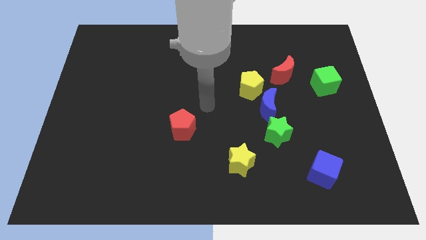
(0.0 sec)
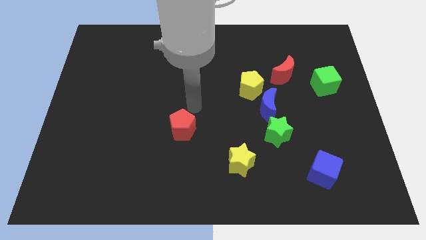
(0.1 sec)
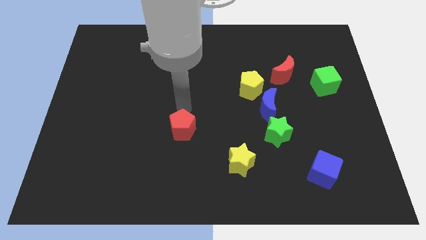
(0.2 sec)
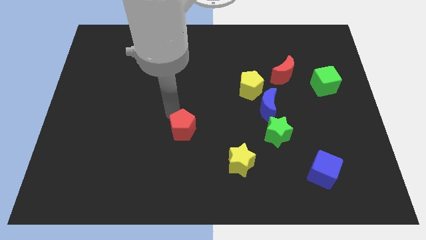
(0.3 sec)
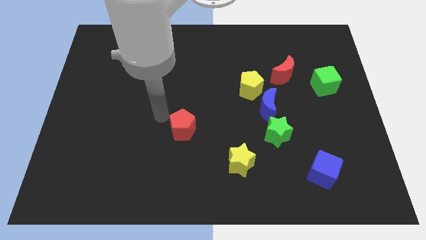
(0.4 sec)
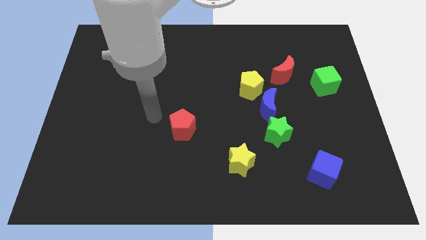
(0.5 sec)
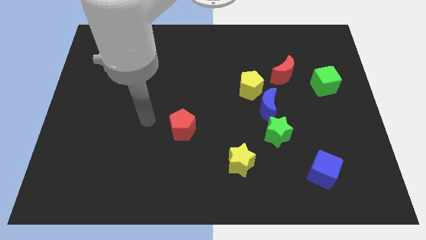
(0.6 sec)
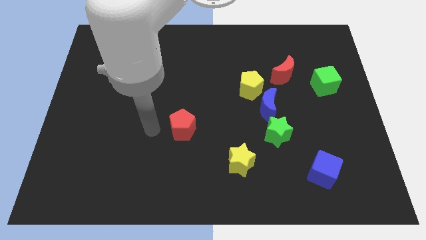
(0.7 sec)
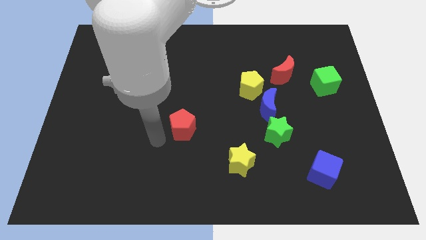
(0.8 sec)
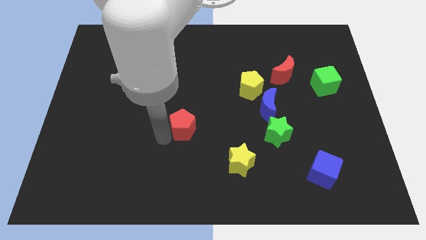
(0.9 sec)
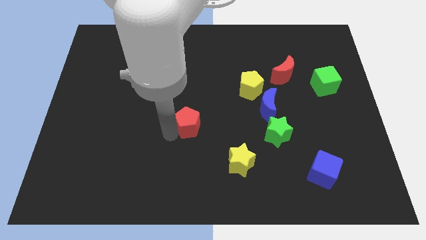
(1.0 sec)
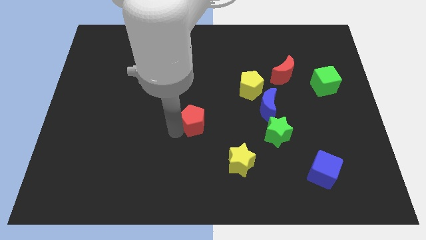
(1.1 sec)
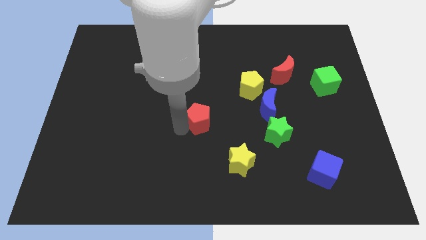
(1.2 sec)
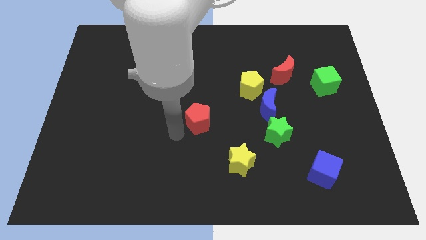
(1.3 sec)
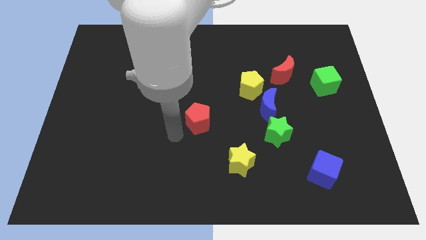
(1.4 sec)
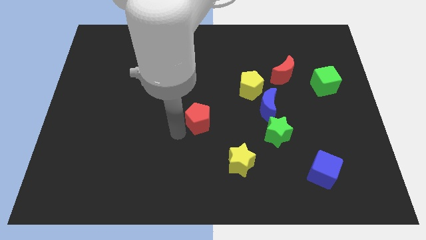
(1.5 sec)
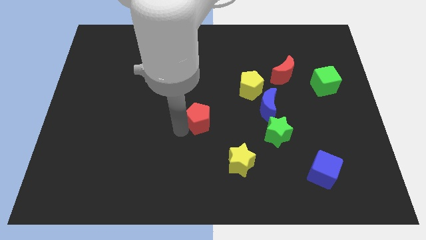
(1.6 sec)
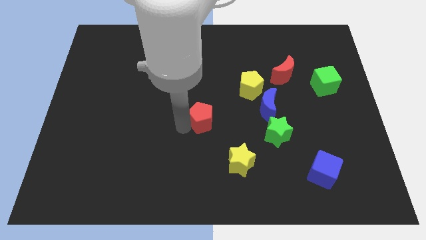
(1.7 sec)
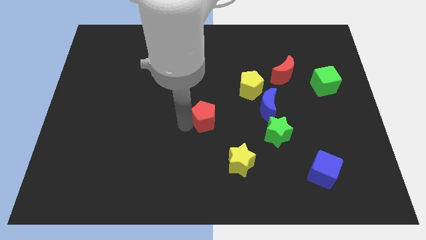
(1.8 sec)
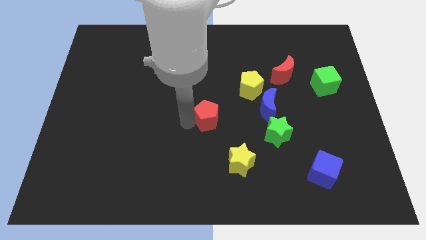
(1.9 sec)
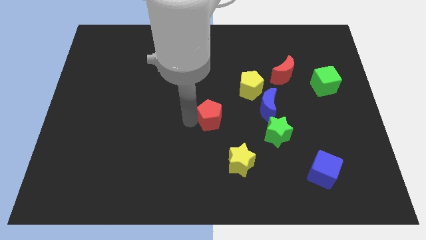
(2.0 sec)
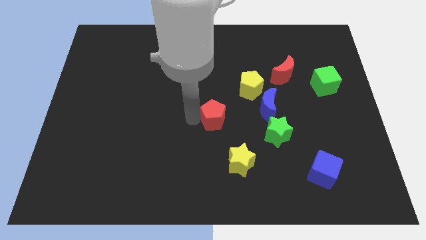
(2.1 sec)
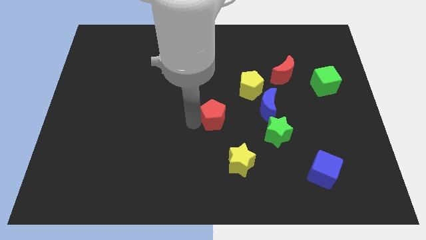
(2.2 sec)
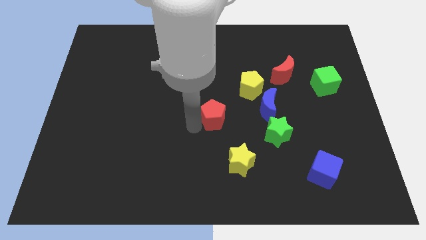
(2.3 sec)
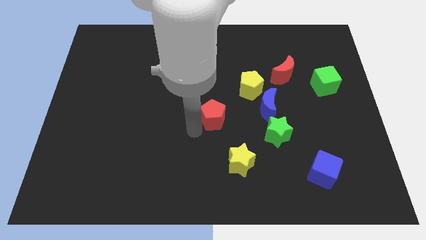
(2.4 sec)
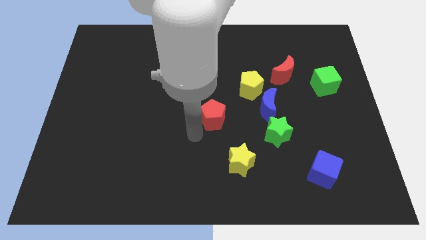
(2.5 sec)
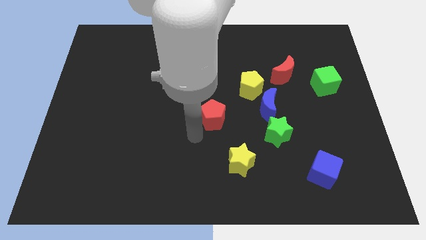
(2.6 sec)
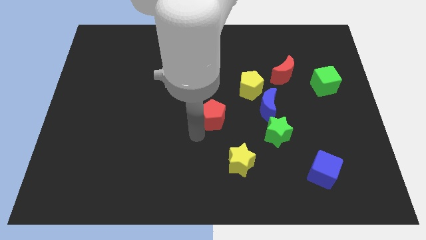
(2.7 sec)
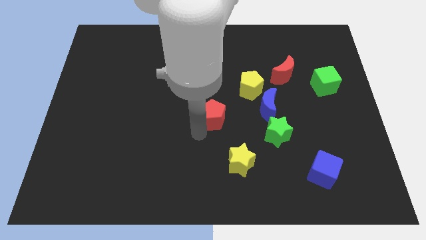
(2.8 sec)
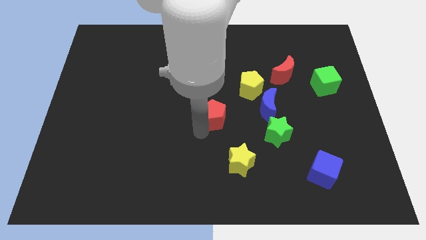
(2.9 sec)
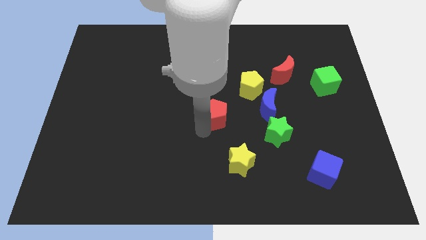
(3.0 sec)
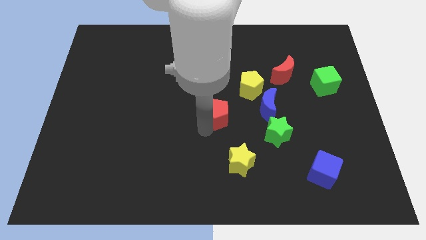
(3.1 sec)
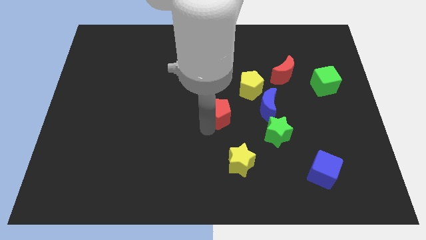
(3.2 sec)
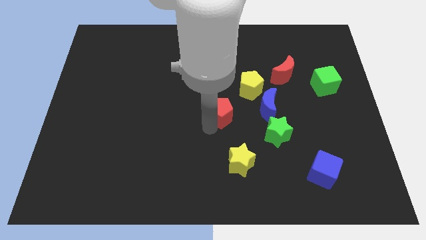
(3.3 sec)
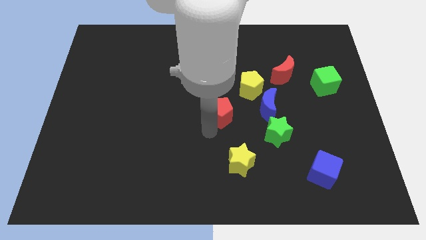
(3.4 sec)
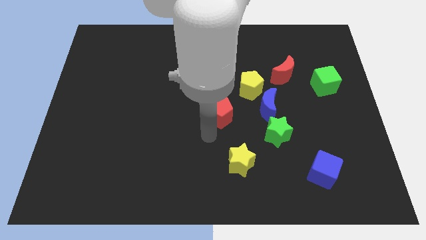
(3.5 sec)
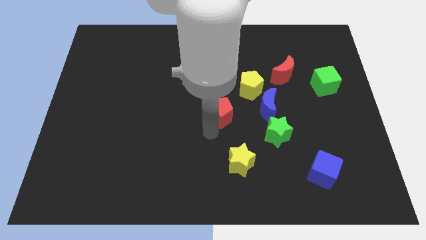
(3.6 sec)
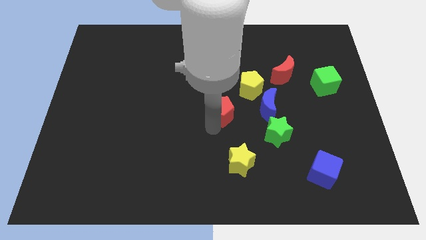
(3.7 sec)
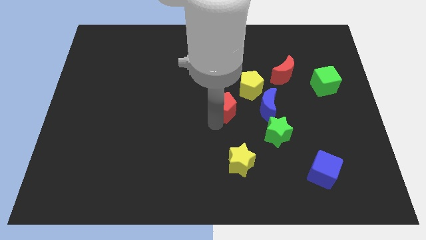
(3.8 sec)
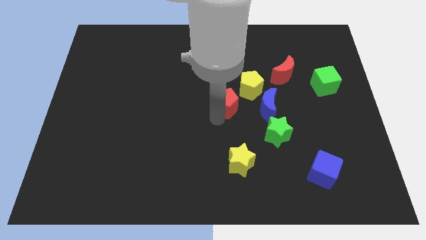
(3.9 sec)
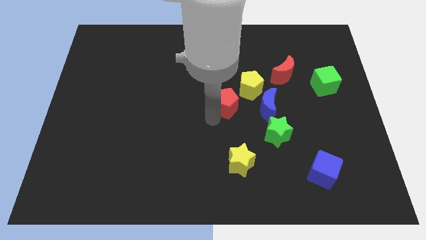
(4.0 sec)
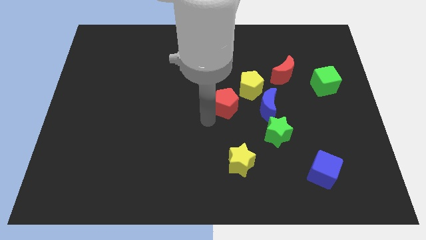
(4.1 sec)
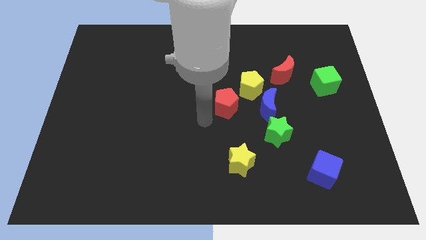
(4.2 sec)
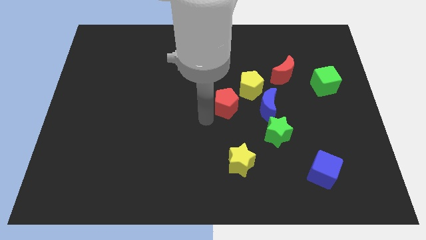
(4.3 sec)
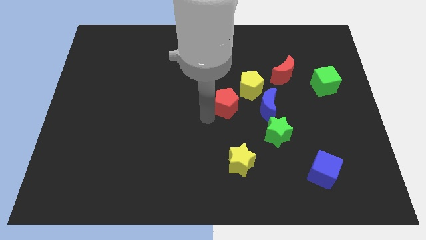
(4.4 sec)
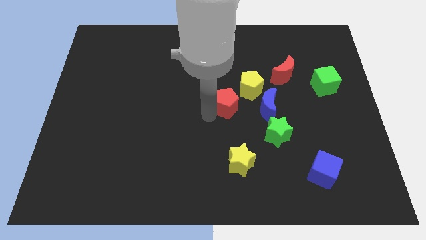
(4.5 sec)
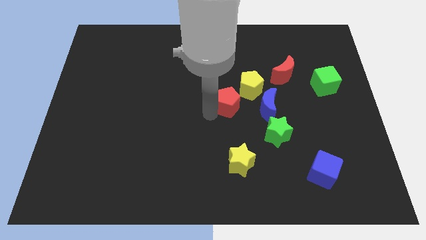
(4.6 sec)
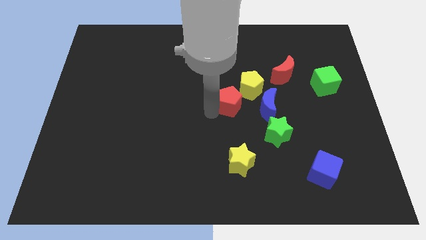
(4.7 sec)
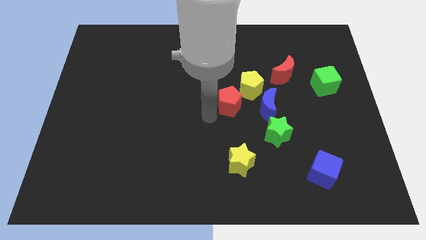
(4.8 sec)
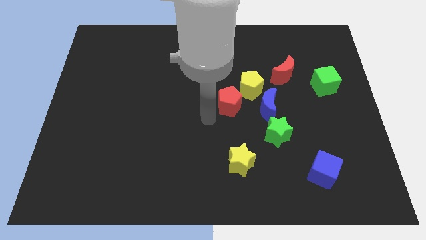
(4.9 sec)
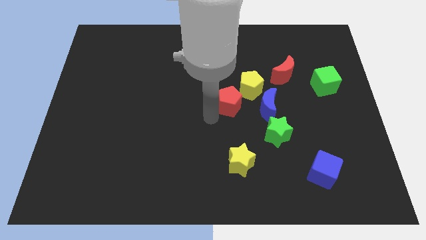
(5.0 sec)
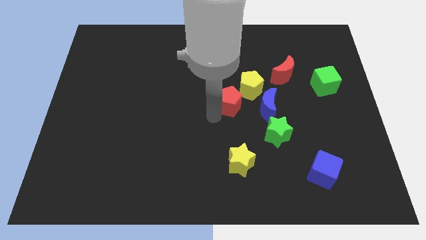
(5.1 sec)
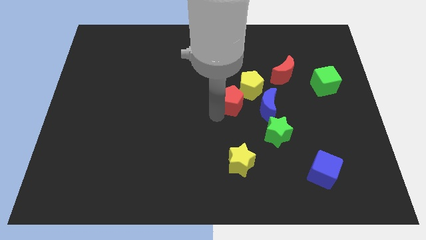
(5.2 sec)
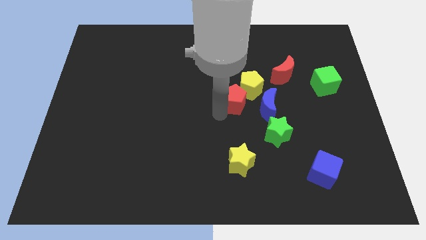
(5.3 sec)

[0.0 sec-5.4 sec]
push the red pentagon to the yellow pentagon

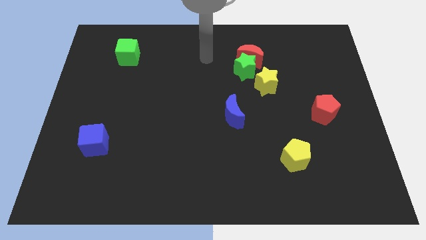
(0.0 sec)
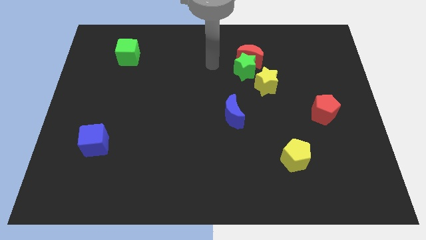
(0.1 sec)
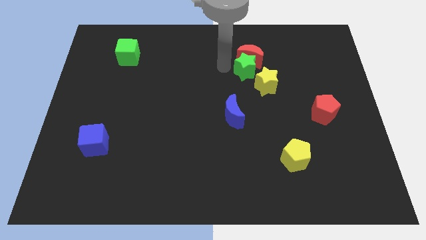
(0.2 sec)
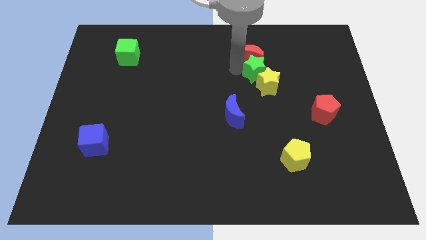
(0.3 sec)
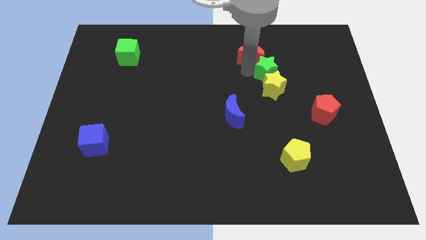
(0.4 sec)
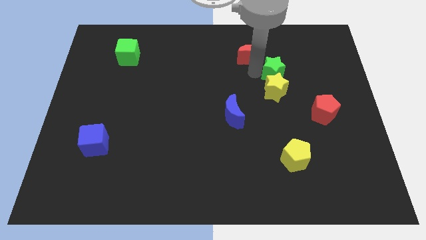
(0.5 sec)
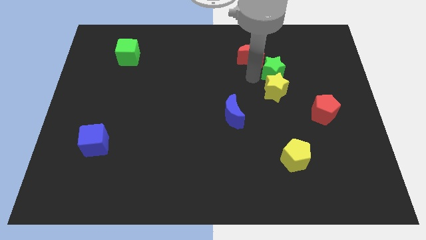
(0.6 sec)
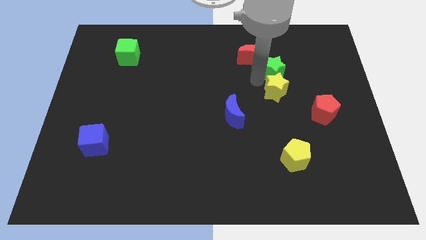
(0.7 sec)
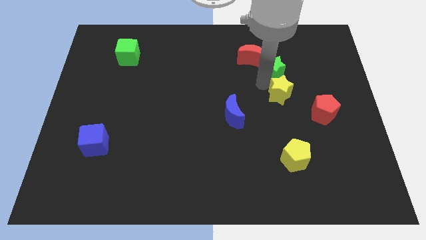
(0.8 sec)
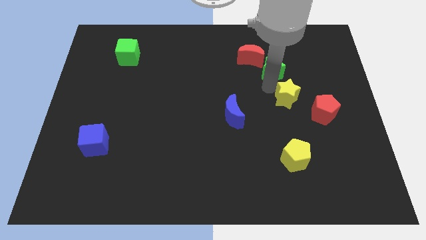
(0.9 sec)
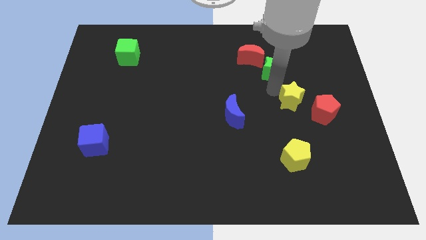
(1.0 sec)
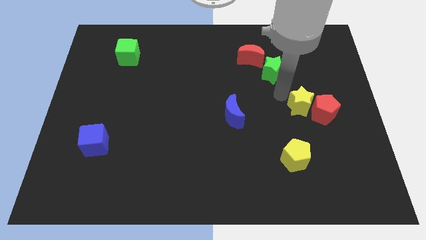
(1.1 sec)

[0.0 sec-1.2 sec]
put the yellow star towards the red pentagon

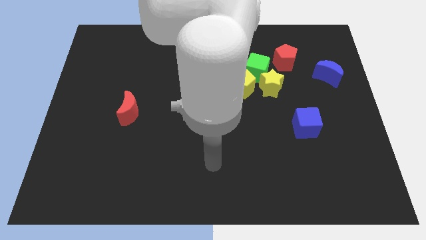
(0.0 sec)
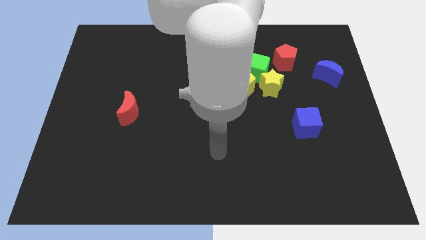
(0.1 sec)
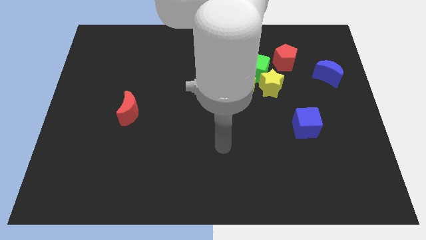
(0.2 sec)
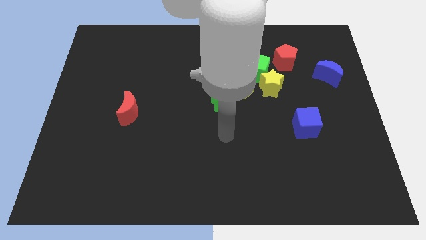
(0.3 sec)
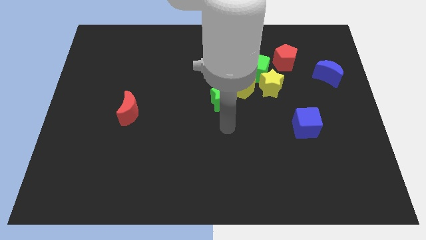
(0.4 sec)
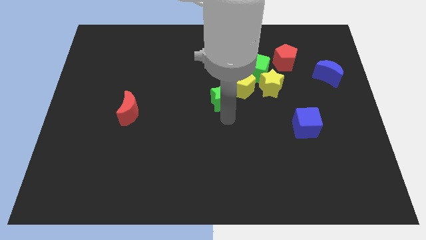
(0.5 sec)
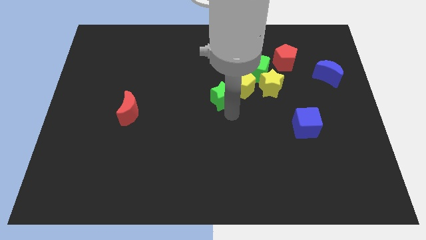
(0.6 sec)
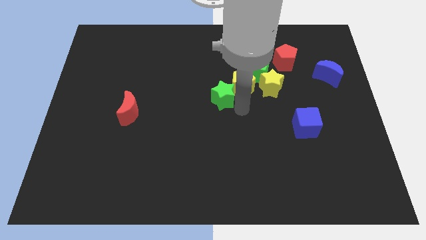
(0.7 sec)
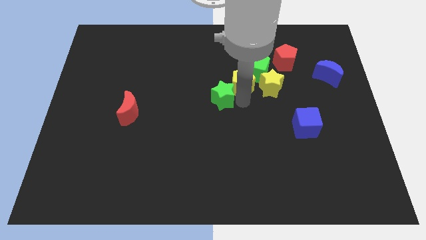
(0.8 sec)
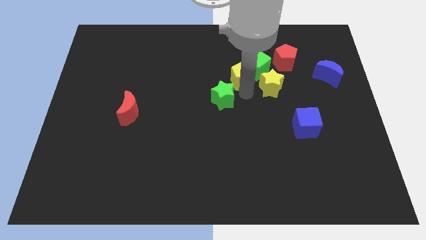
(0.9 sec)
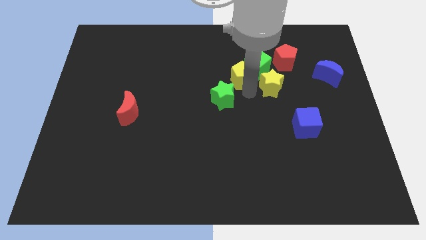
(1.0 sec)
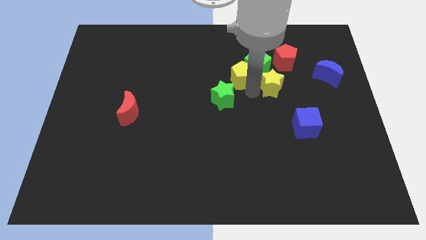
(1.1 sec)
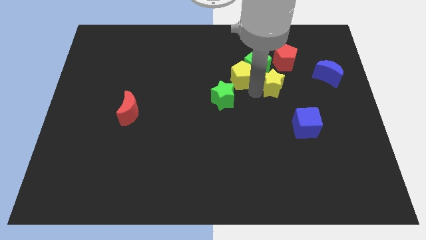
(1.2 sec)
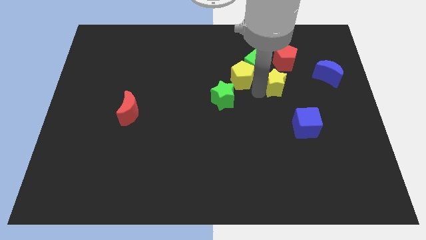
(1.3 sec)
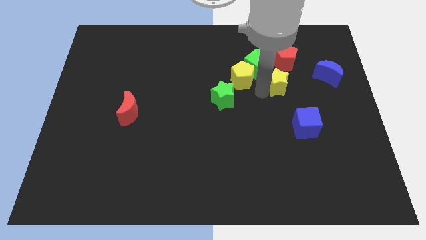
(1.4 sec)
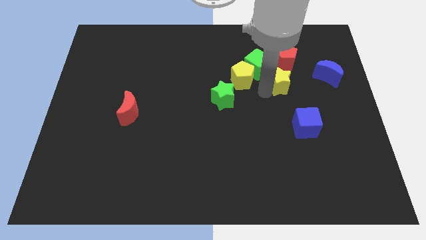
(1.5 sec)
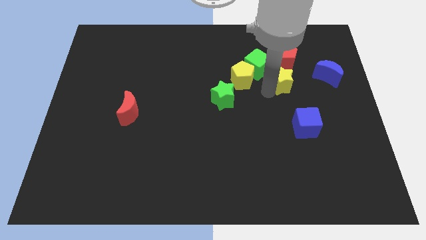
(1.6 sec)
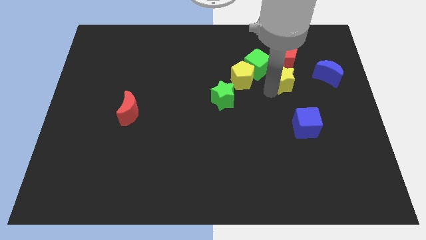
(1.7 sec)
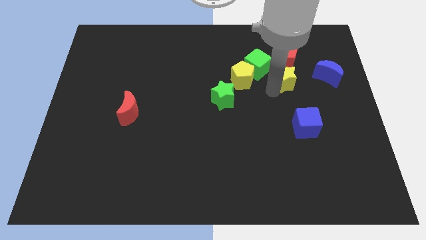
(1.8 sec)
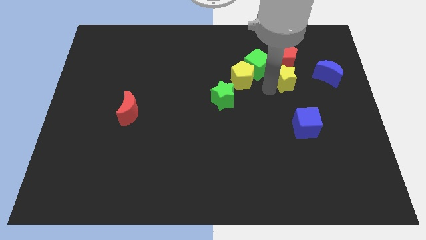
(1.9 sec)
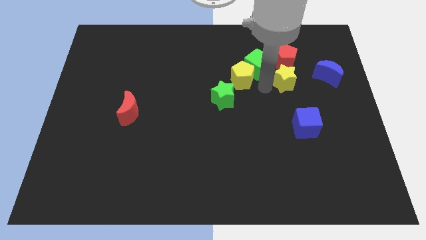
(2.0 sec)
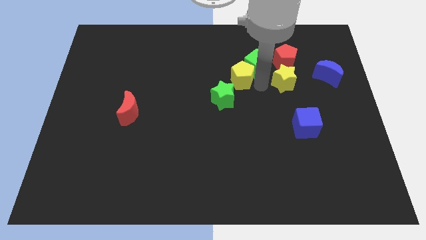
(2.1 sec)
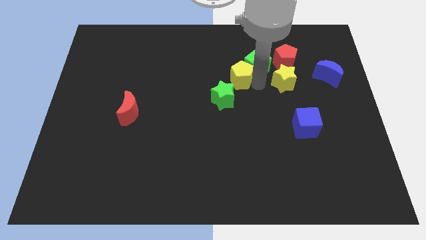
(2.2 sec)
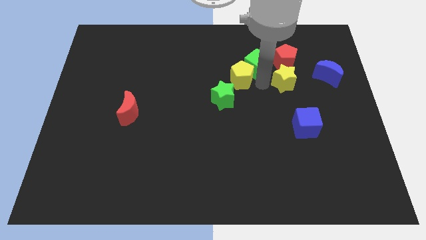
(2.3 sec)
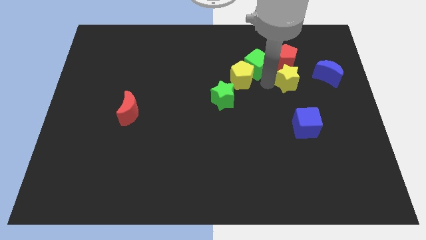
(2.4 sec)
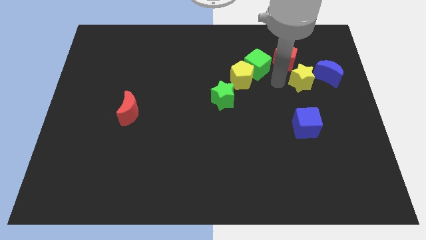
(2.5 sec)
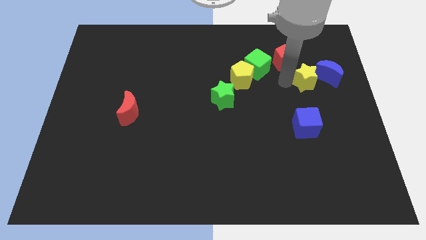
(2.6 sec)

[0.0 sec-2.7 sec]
push the yellow star next to the blue moon
